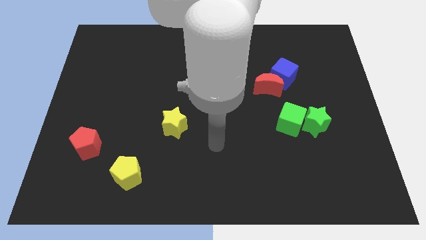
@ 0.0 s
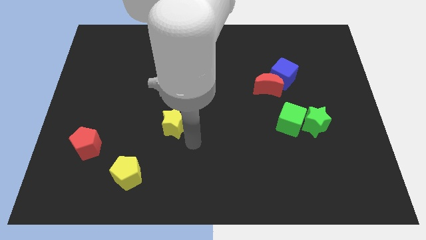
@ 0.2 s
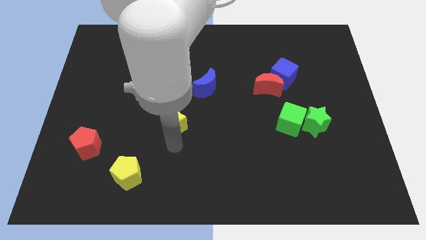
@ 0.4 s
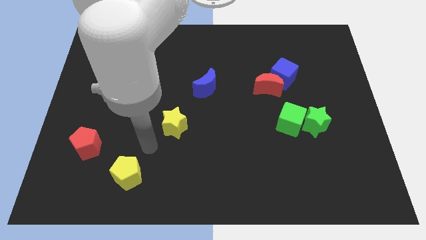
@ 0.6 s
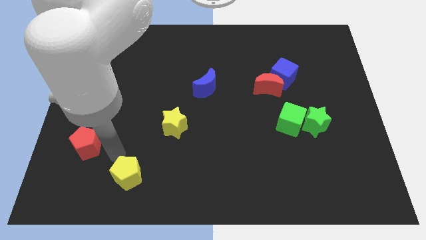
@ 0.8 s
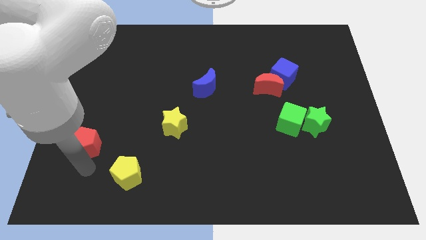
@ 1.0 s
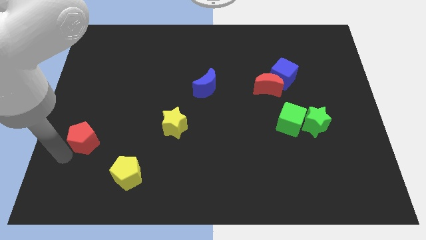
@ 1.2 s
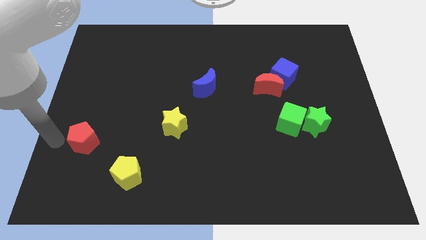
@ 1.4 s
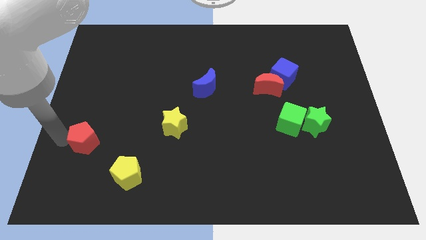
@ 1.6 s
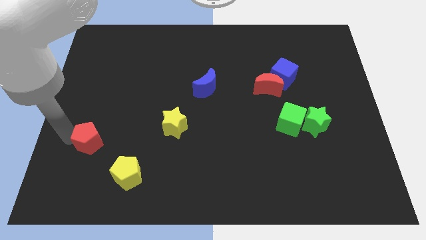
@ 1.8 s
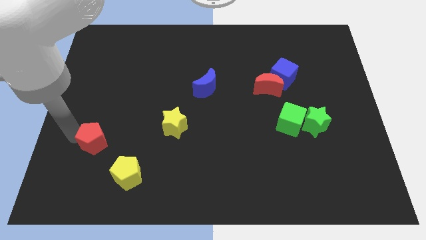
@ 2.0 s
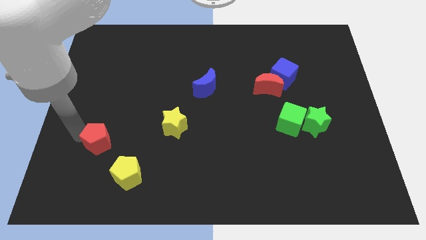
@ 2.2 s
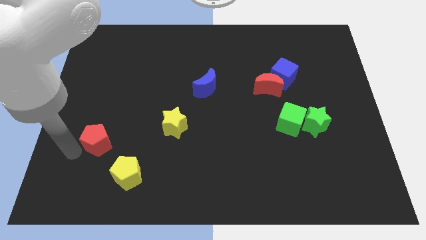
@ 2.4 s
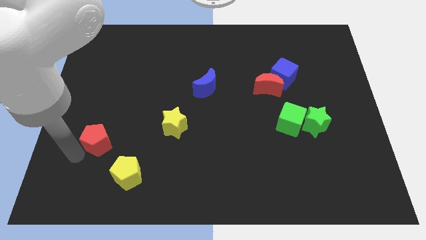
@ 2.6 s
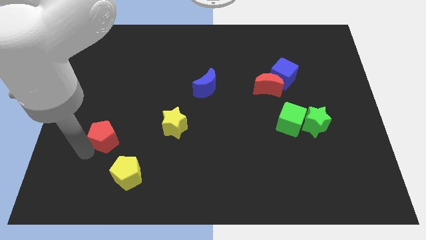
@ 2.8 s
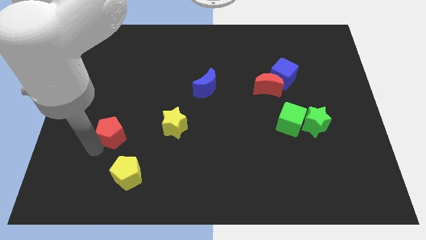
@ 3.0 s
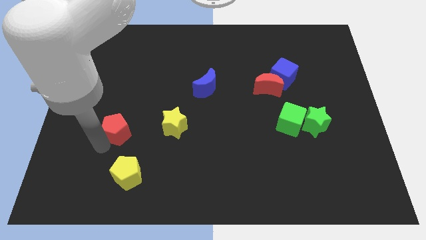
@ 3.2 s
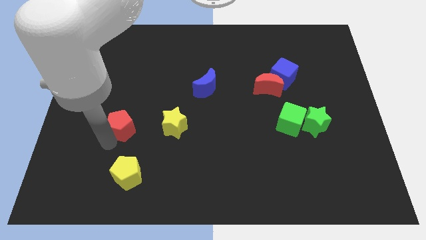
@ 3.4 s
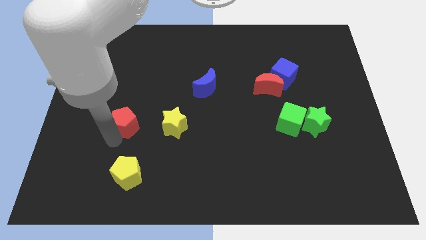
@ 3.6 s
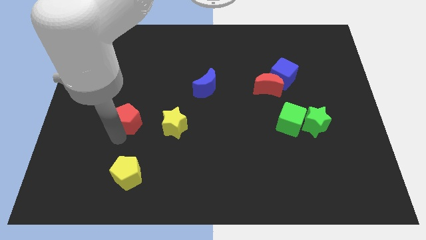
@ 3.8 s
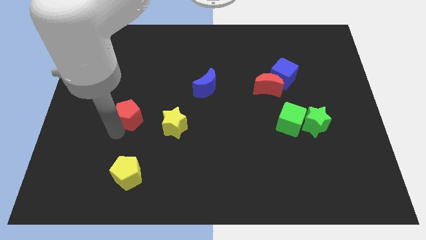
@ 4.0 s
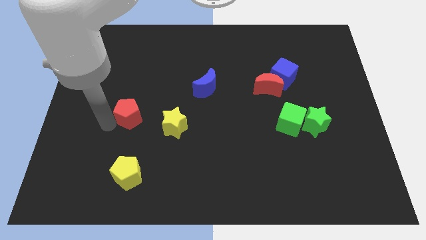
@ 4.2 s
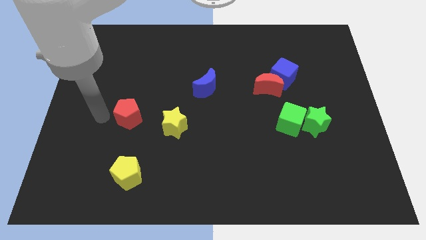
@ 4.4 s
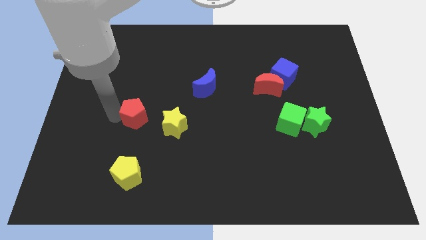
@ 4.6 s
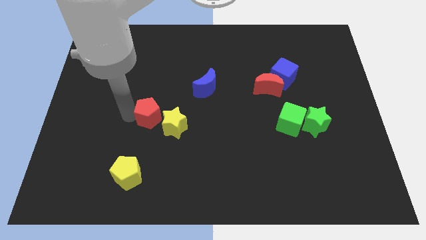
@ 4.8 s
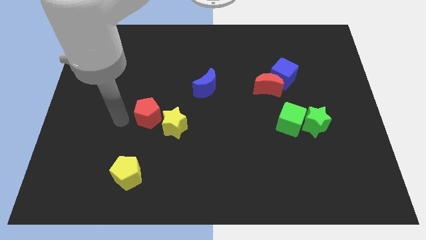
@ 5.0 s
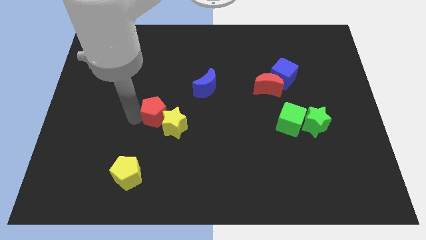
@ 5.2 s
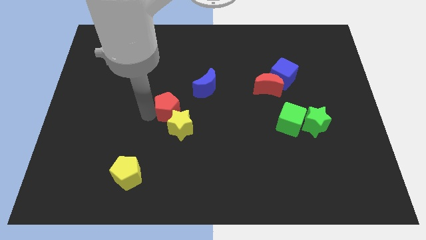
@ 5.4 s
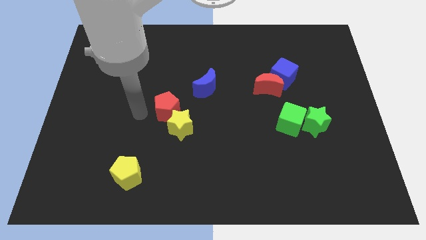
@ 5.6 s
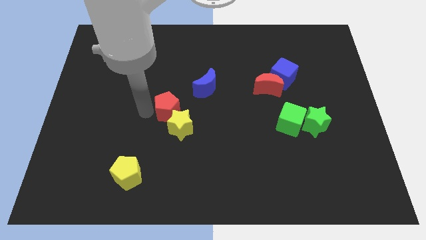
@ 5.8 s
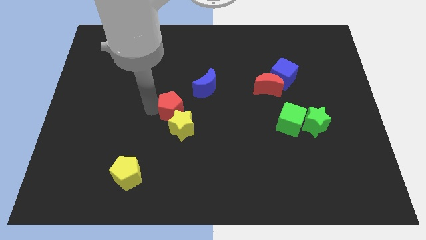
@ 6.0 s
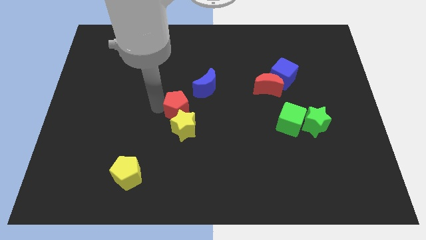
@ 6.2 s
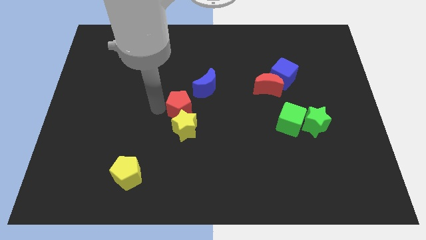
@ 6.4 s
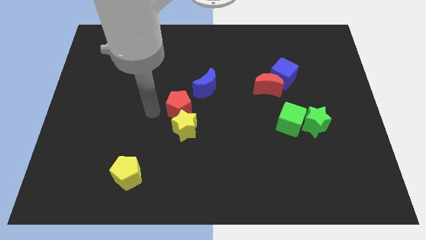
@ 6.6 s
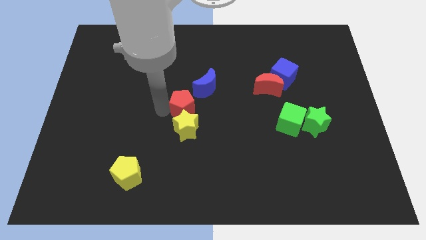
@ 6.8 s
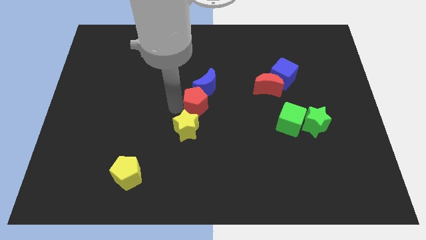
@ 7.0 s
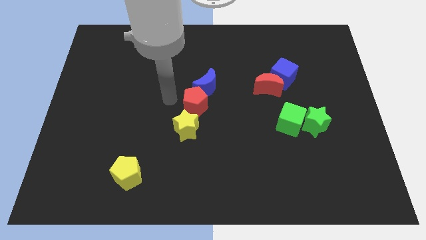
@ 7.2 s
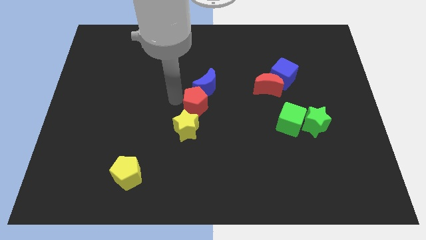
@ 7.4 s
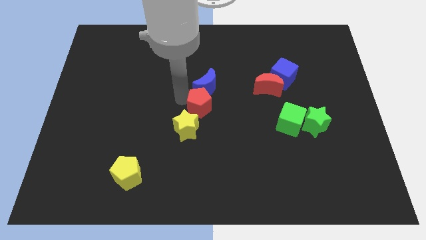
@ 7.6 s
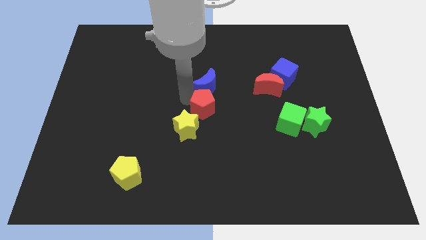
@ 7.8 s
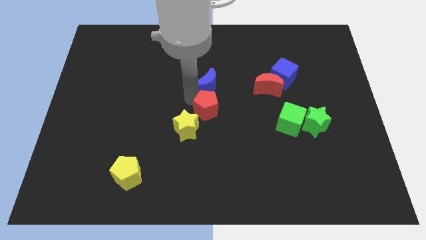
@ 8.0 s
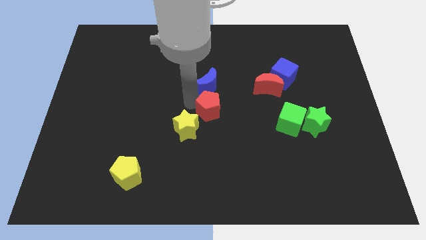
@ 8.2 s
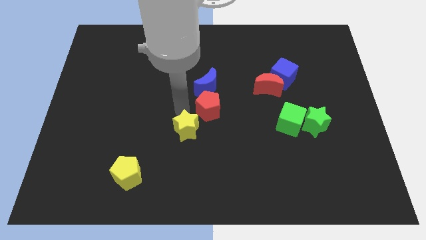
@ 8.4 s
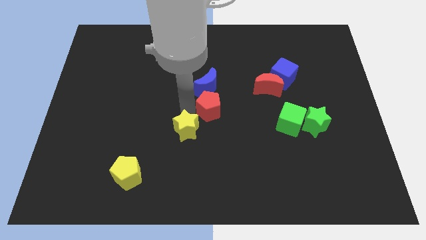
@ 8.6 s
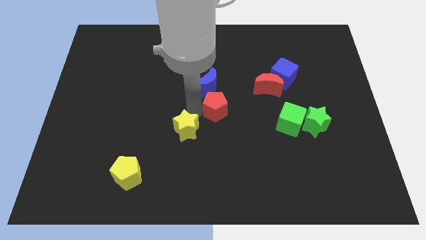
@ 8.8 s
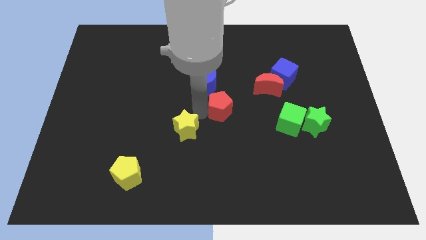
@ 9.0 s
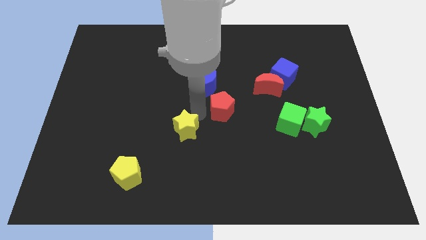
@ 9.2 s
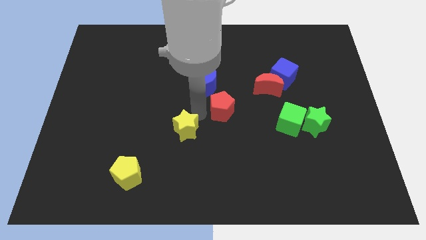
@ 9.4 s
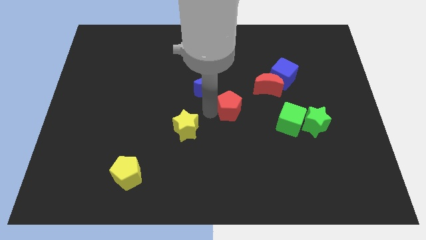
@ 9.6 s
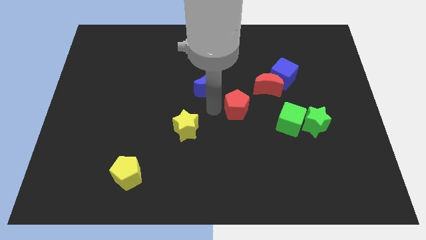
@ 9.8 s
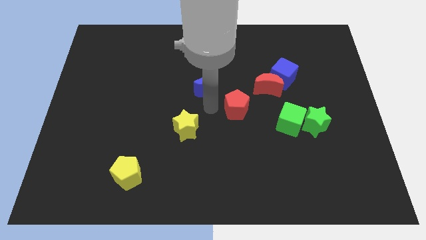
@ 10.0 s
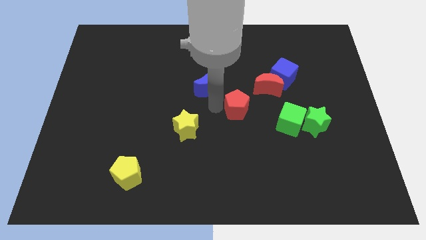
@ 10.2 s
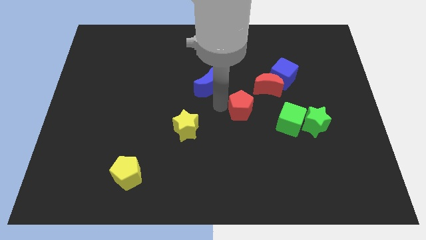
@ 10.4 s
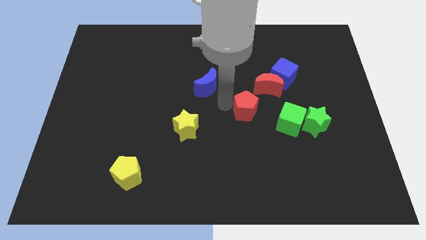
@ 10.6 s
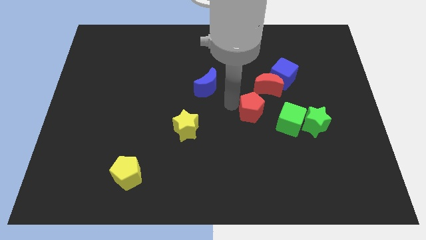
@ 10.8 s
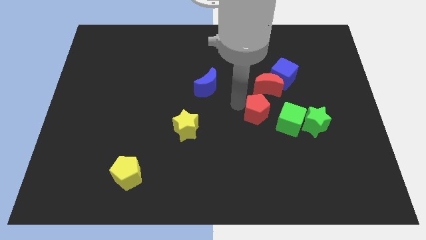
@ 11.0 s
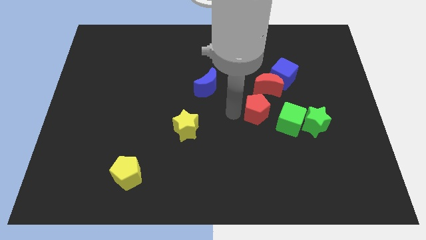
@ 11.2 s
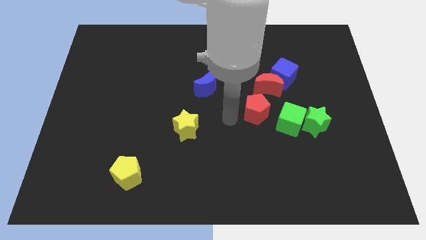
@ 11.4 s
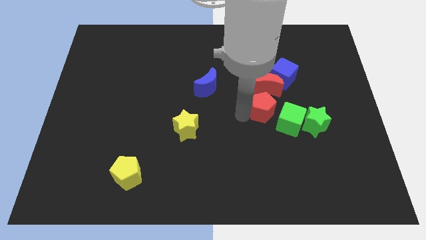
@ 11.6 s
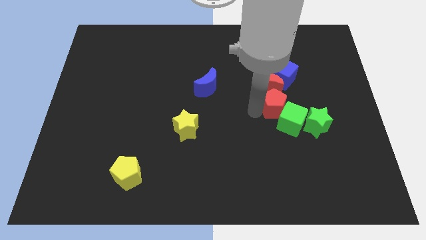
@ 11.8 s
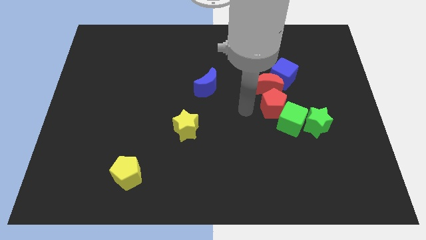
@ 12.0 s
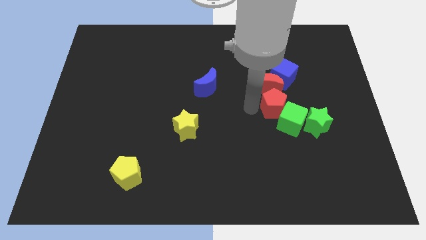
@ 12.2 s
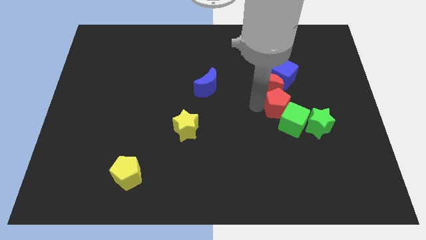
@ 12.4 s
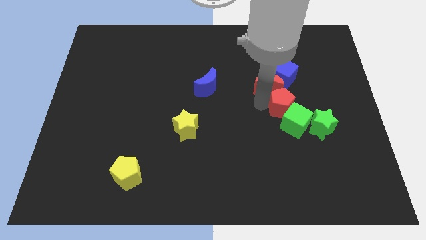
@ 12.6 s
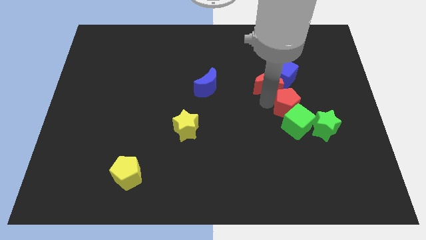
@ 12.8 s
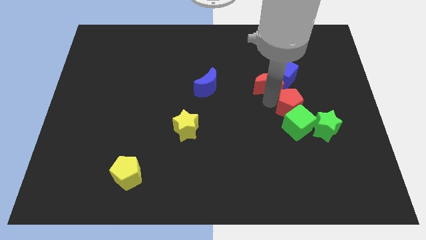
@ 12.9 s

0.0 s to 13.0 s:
move the red pentagon to the top right side of the green cube
